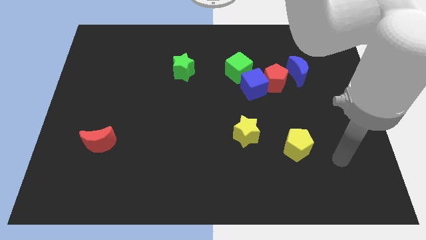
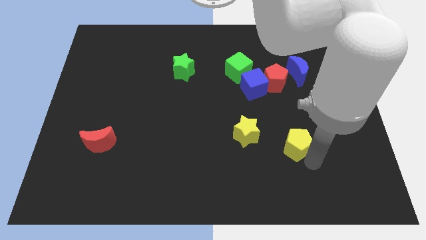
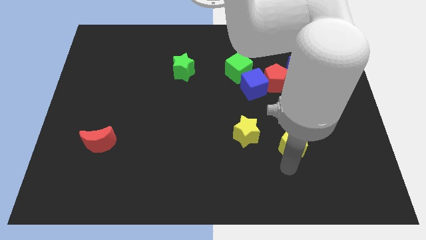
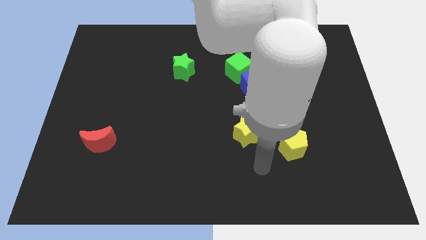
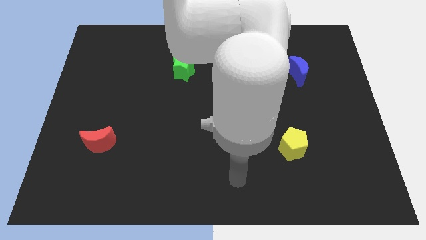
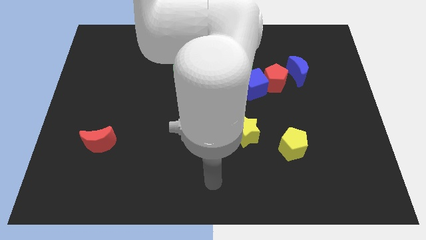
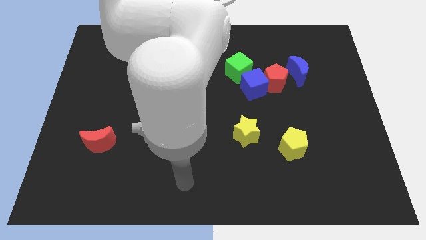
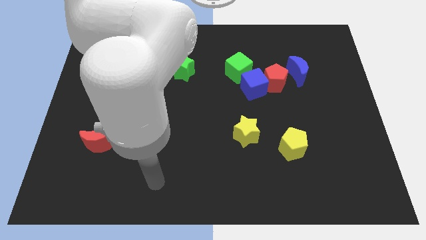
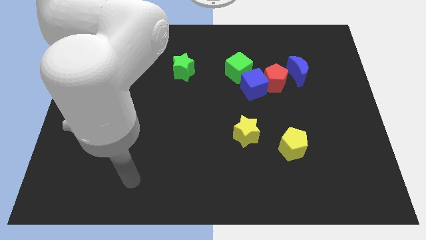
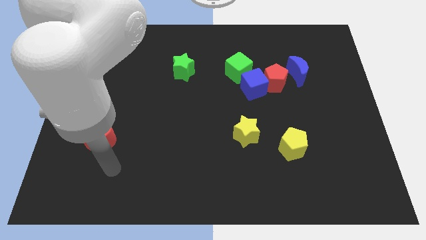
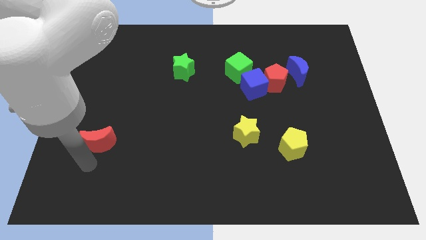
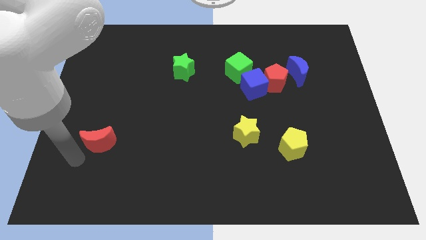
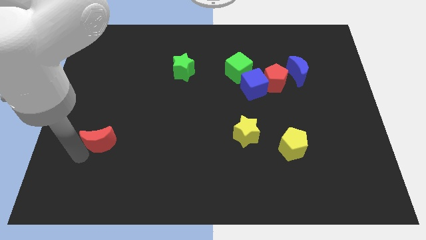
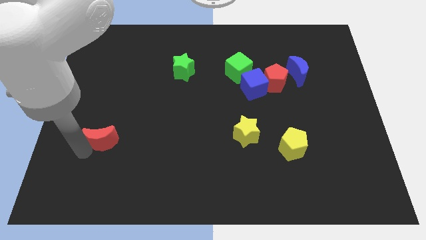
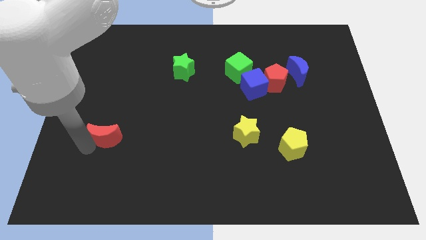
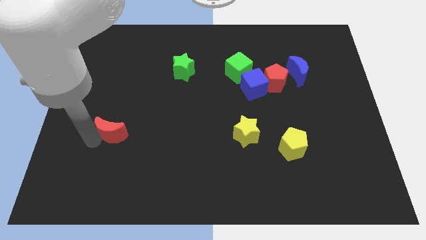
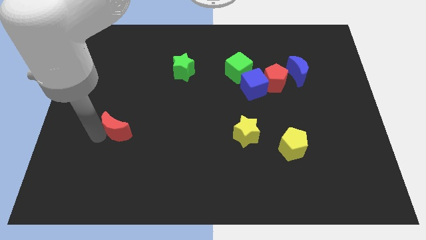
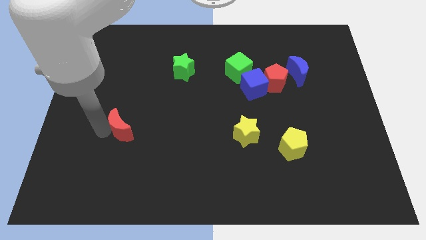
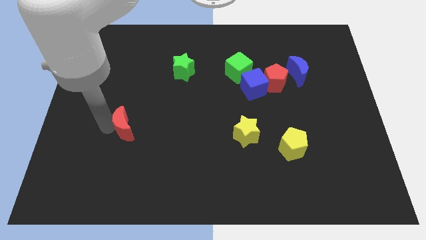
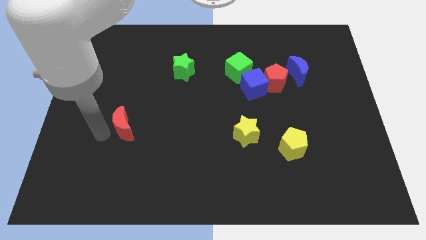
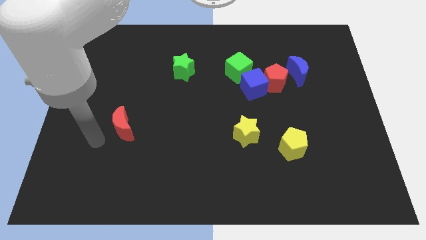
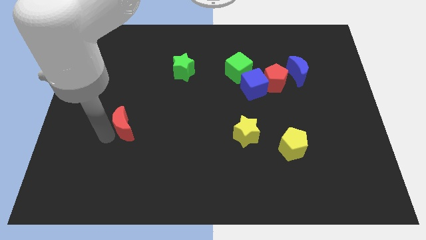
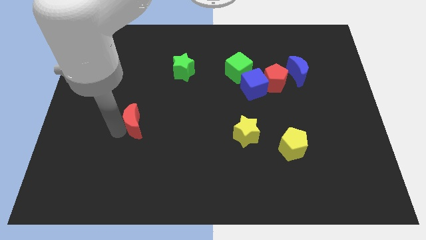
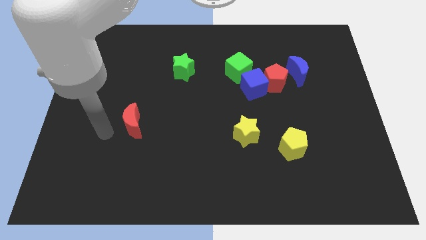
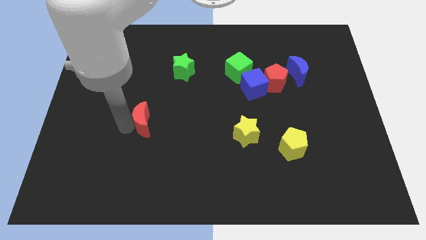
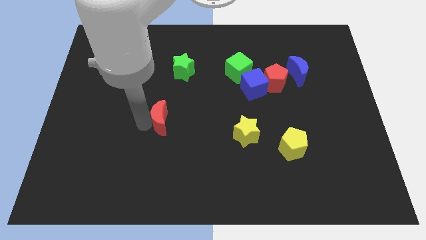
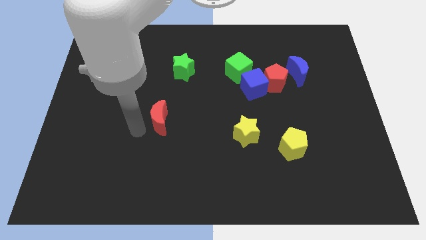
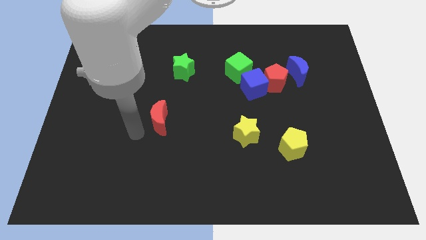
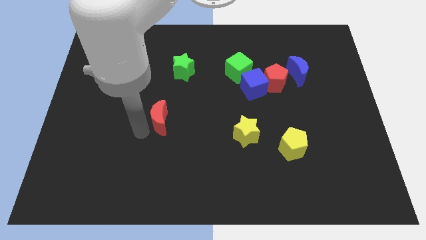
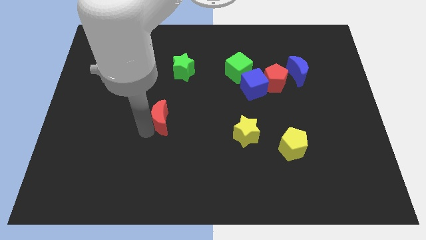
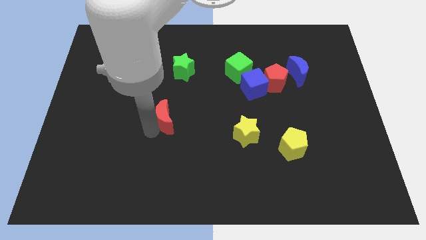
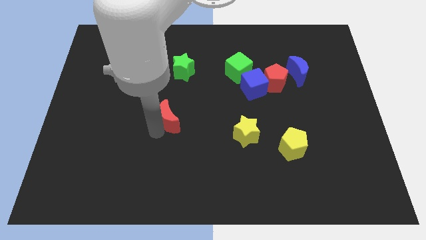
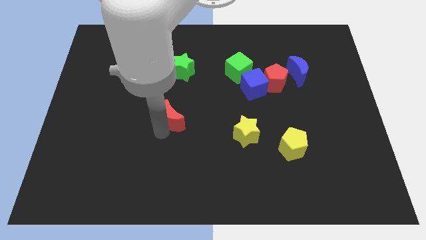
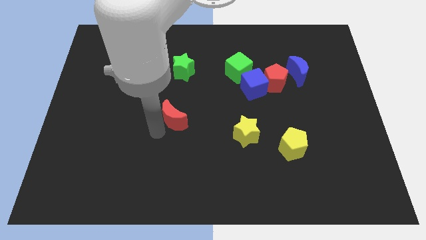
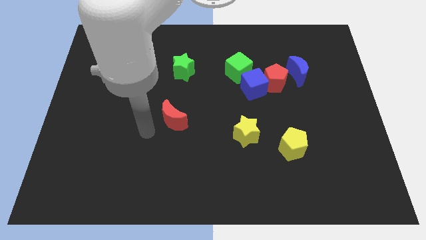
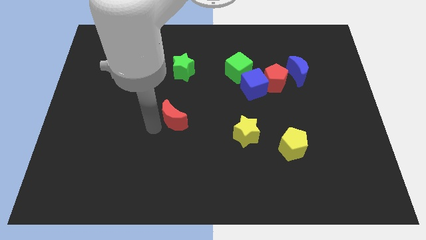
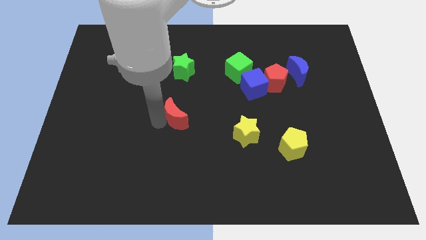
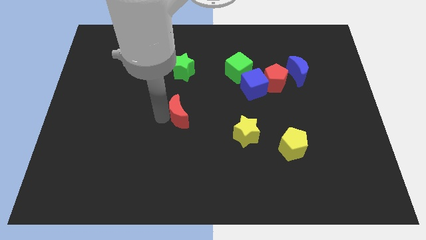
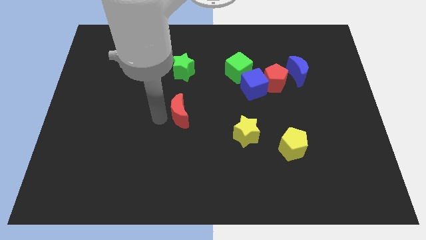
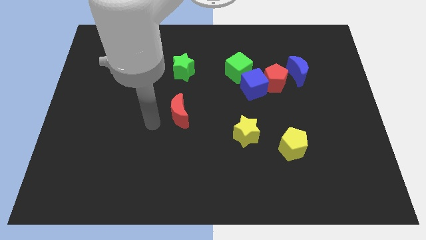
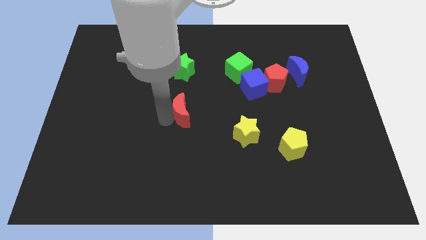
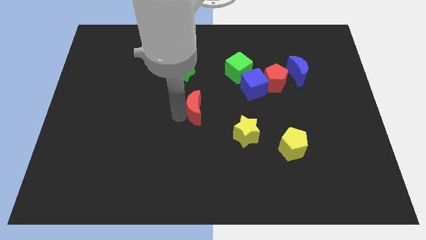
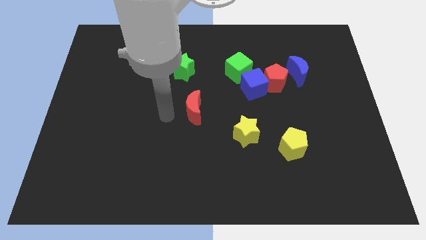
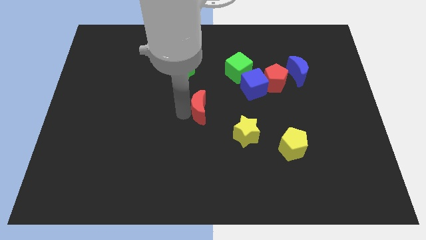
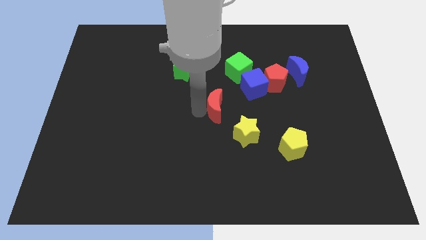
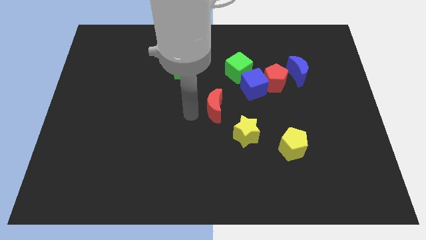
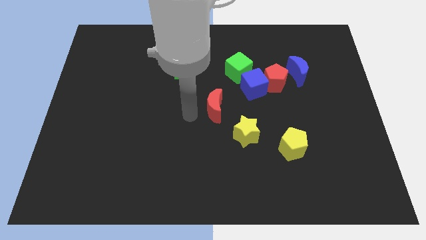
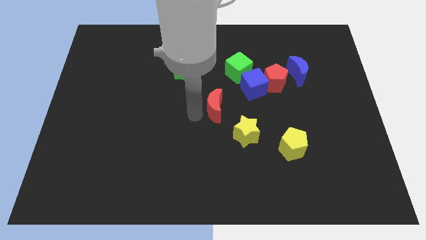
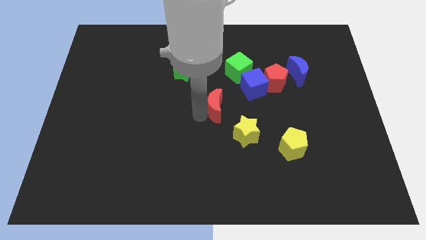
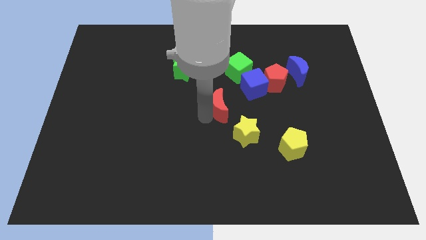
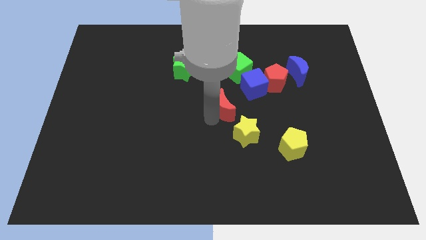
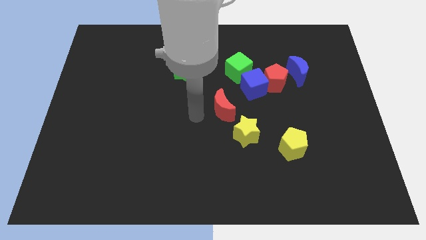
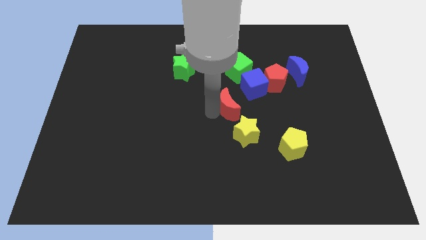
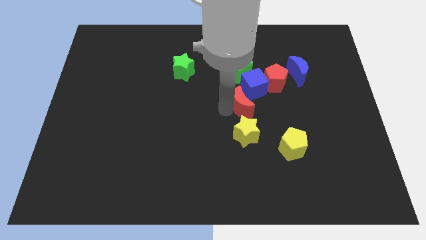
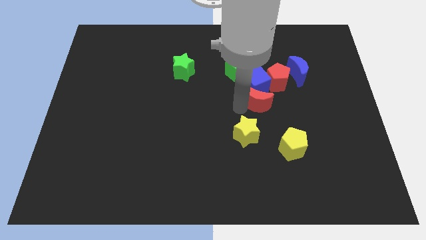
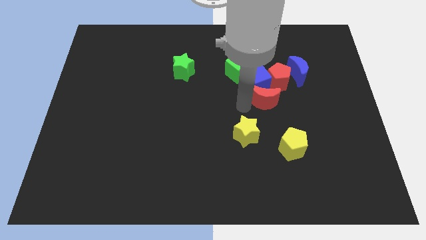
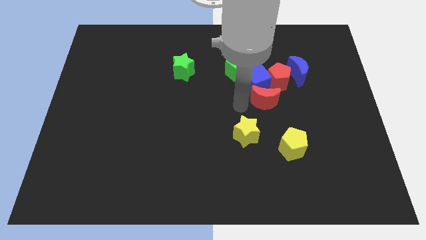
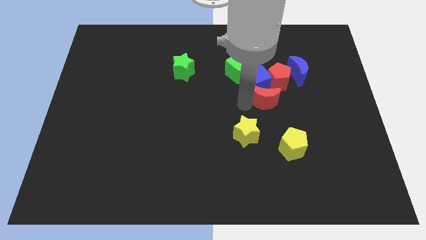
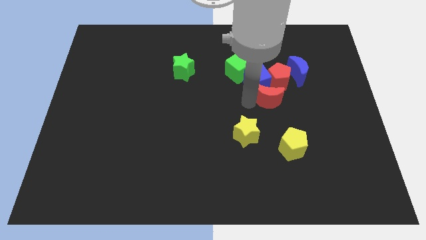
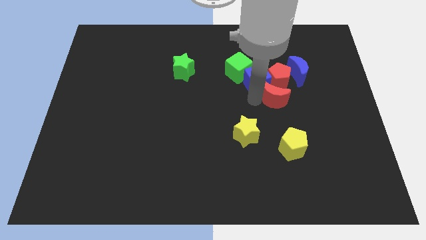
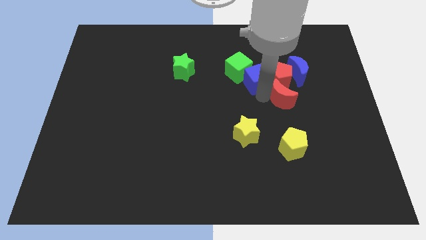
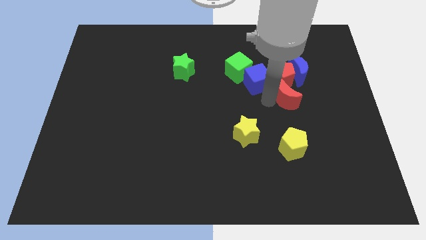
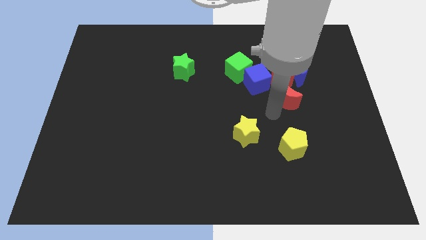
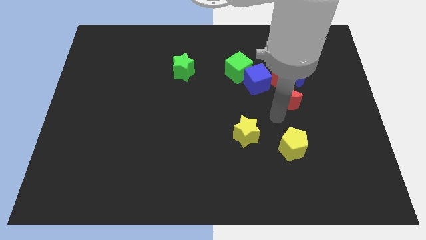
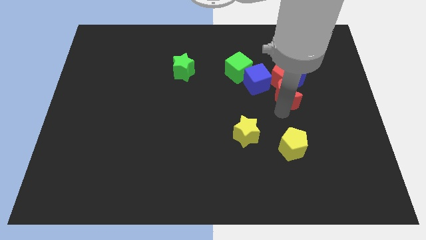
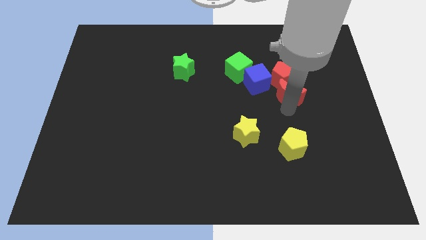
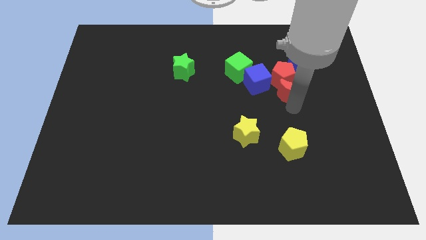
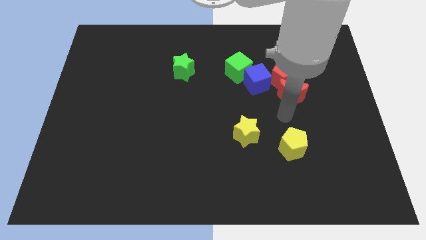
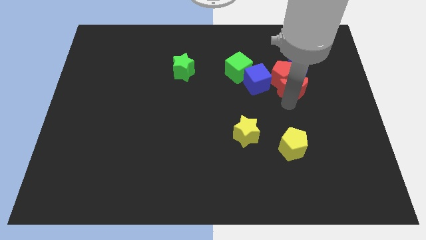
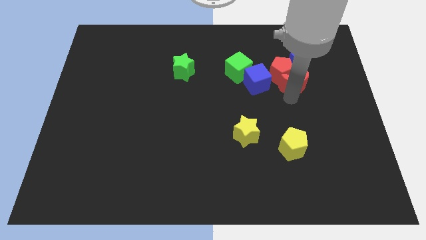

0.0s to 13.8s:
move the red moon close to the blue moon

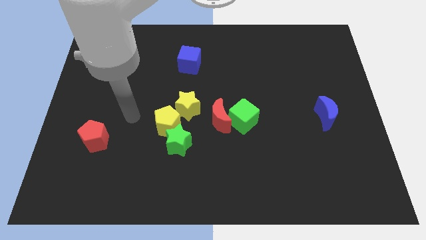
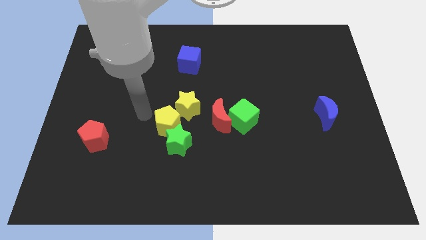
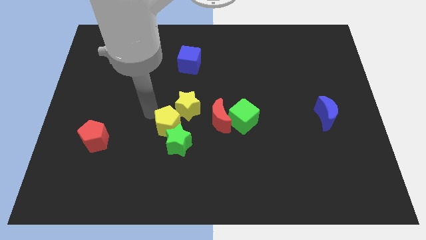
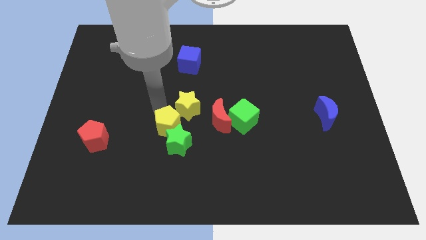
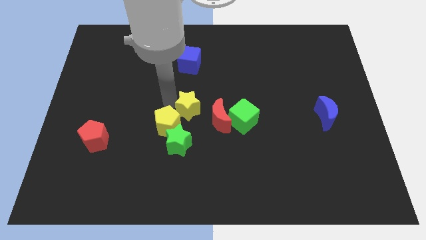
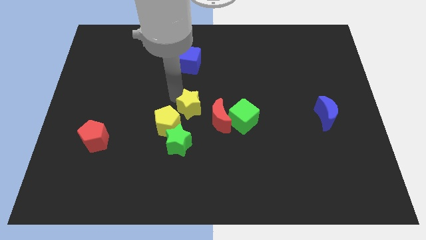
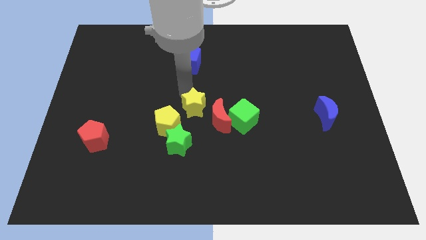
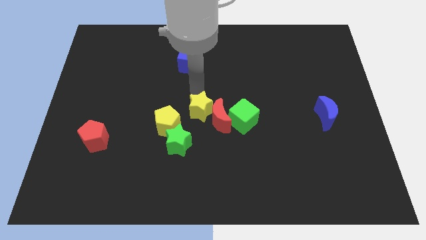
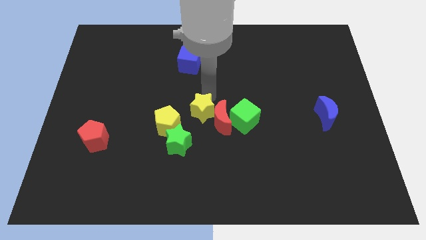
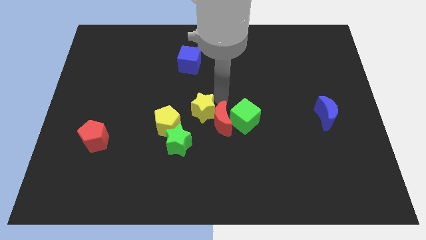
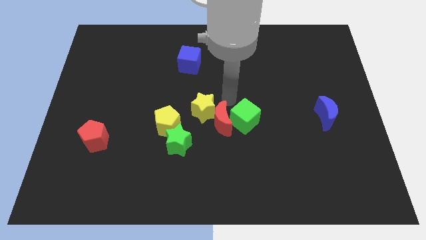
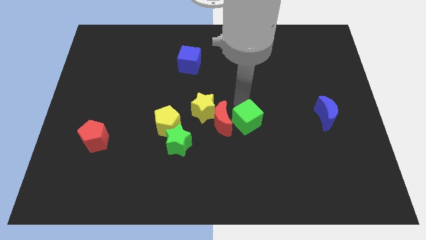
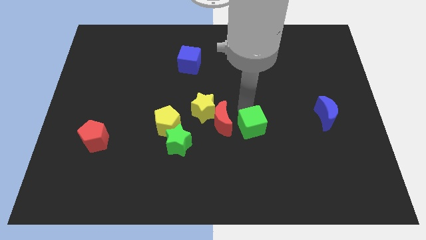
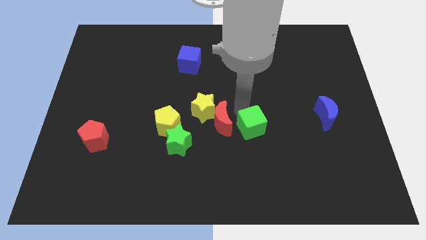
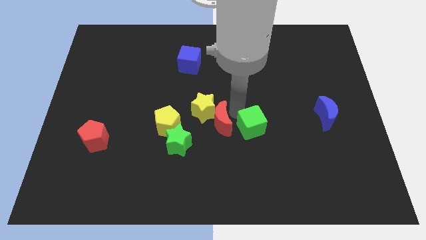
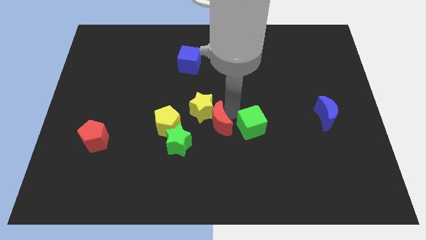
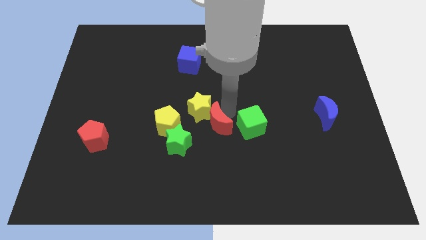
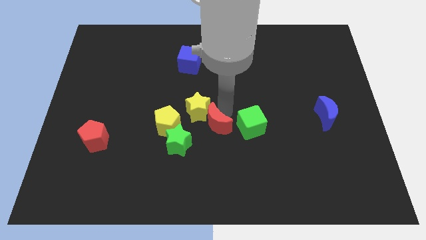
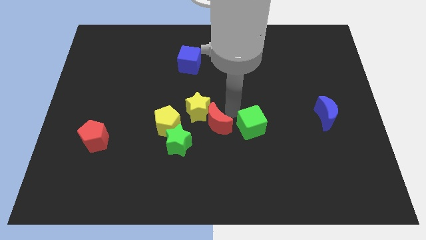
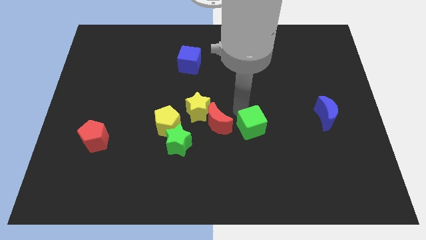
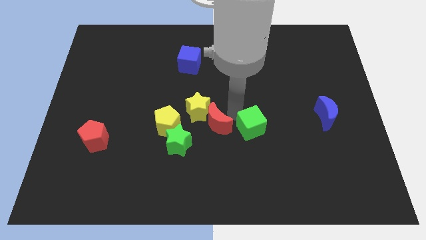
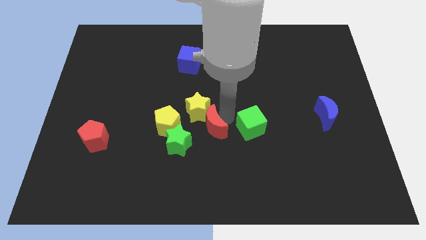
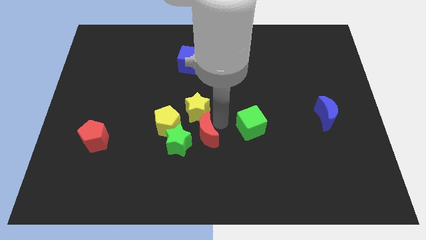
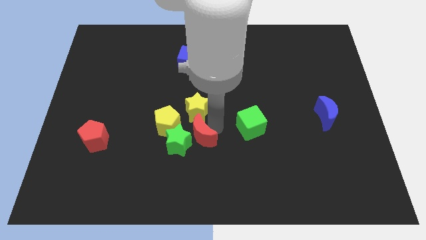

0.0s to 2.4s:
move the red moon to the green star
